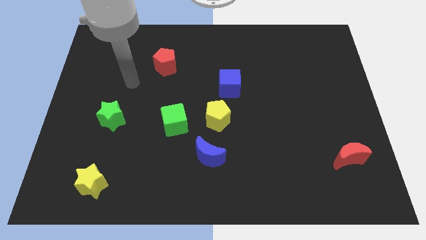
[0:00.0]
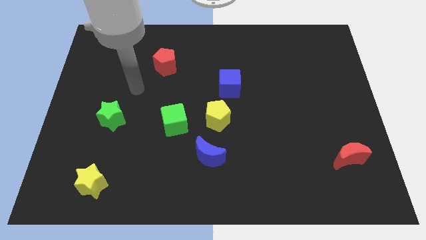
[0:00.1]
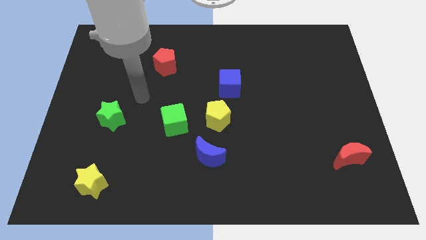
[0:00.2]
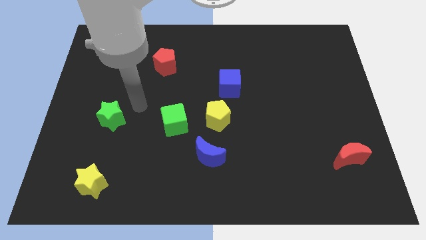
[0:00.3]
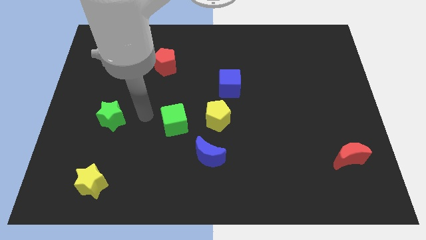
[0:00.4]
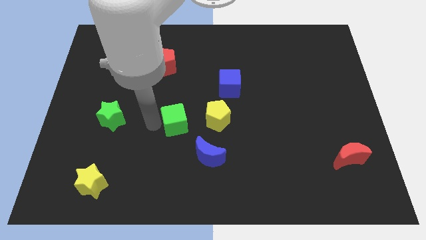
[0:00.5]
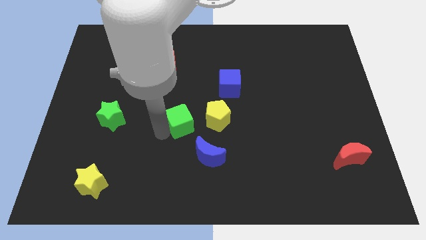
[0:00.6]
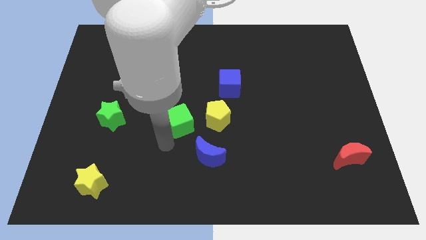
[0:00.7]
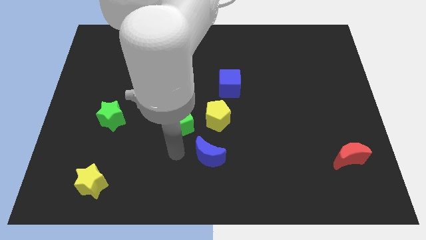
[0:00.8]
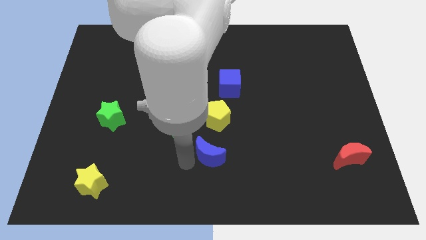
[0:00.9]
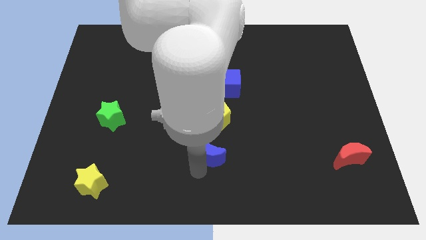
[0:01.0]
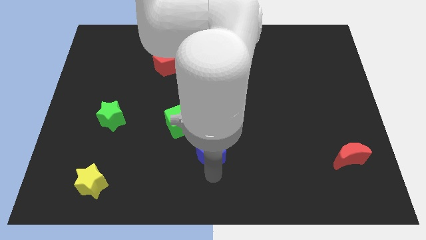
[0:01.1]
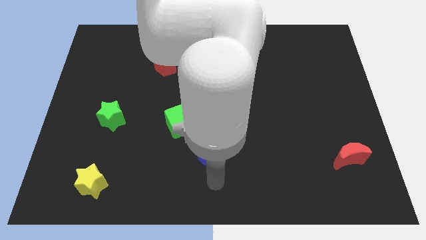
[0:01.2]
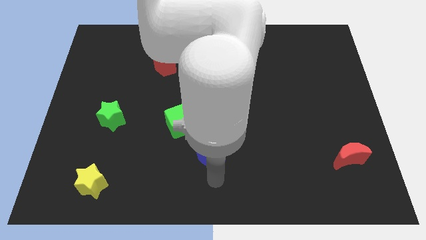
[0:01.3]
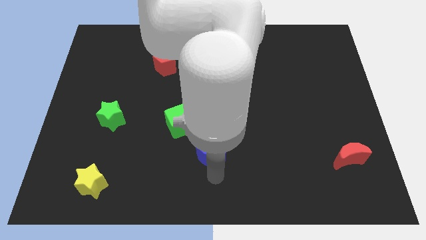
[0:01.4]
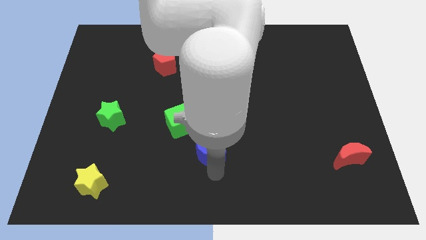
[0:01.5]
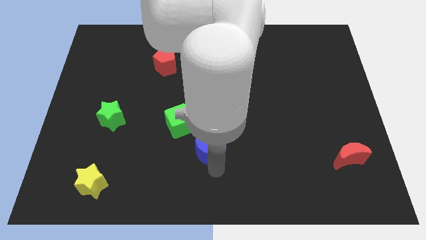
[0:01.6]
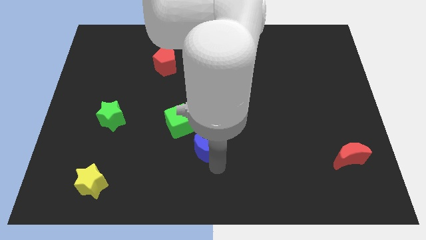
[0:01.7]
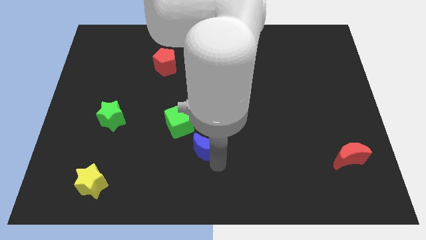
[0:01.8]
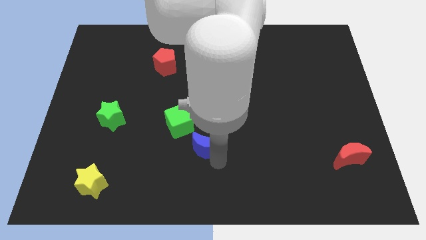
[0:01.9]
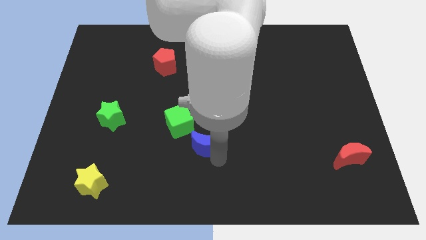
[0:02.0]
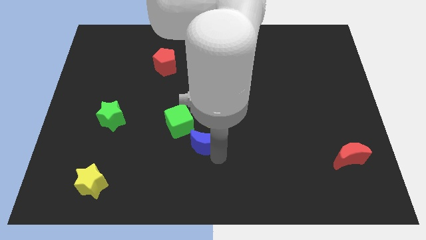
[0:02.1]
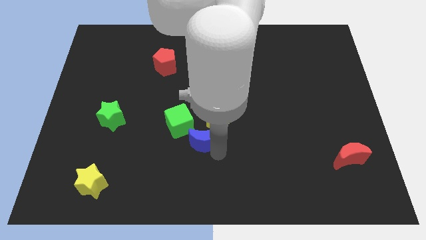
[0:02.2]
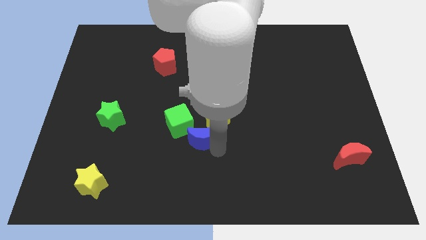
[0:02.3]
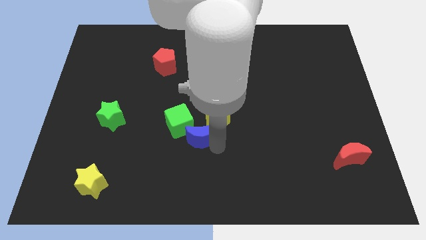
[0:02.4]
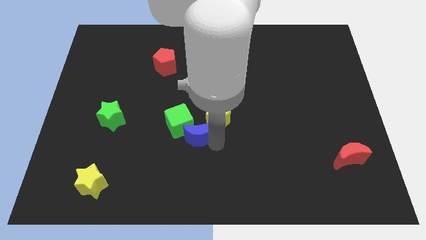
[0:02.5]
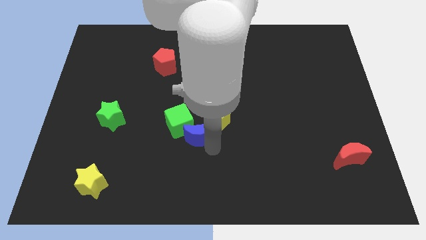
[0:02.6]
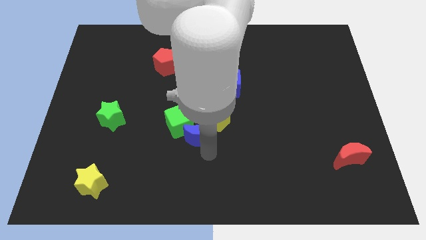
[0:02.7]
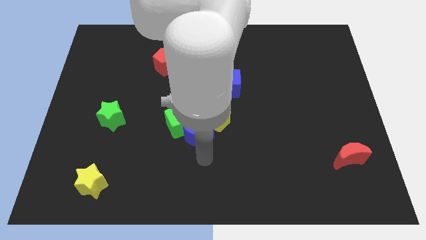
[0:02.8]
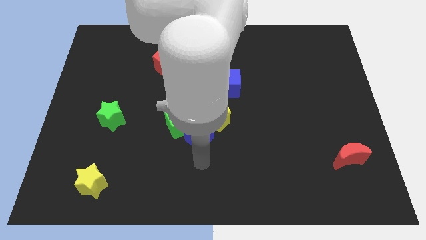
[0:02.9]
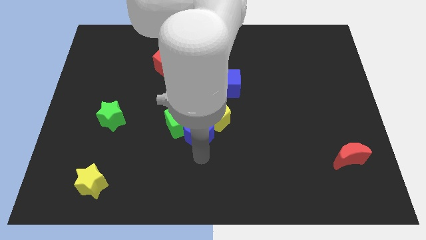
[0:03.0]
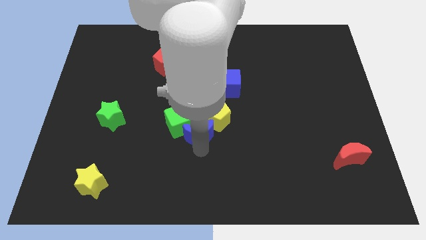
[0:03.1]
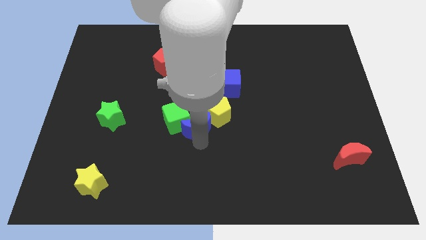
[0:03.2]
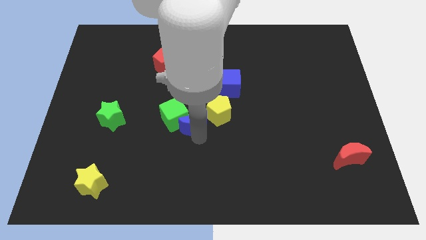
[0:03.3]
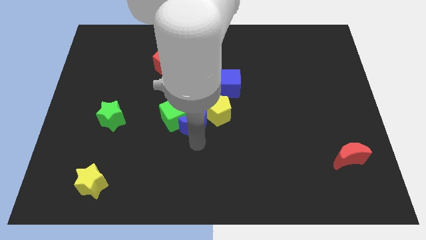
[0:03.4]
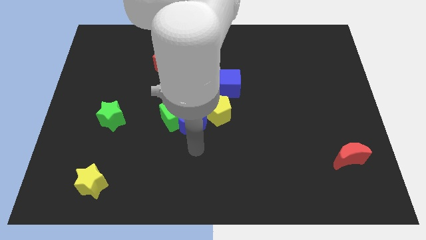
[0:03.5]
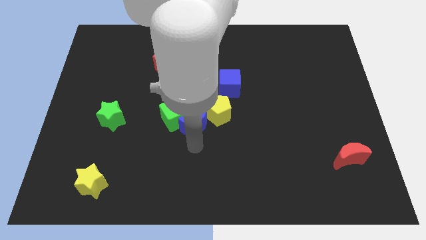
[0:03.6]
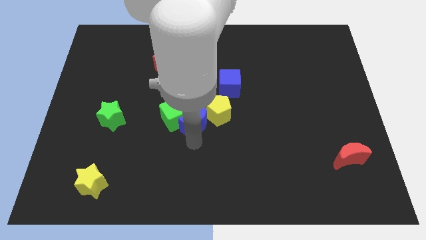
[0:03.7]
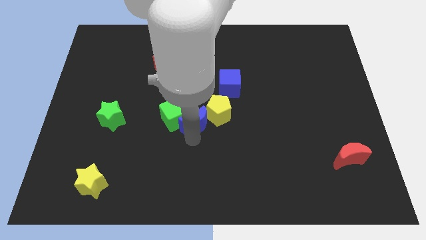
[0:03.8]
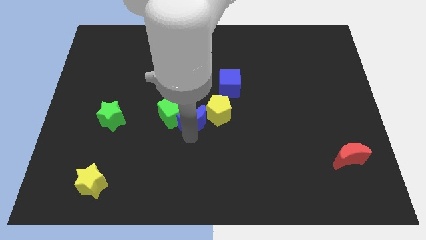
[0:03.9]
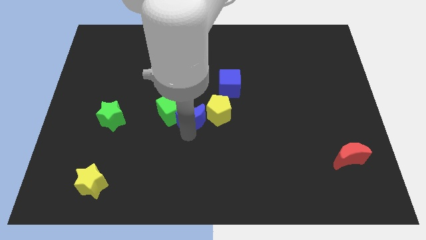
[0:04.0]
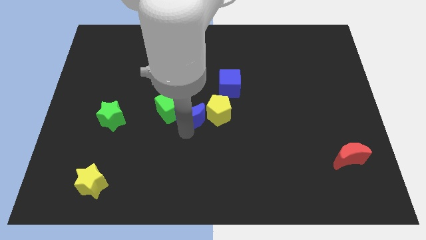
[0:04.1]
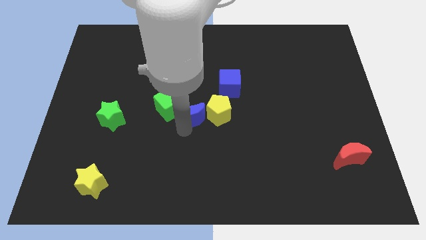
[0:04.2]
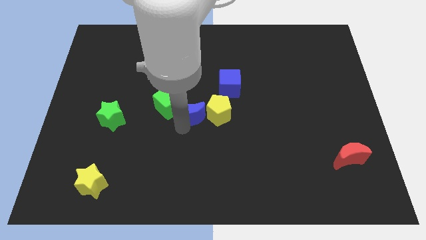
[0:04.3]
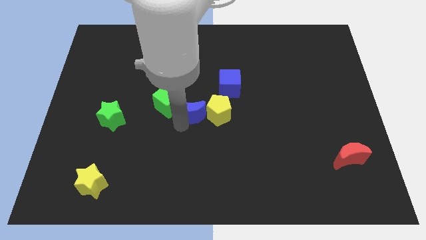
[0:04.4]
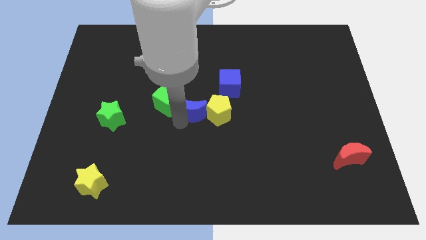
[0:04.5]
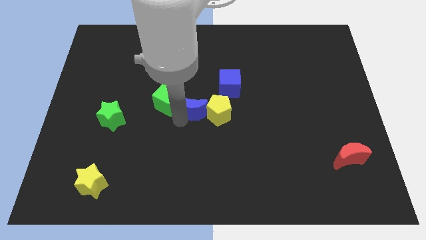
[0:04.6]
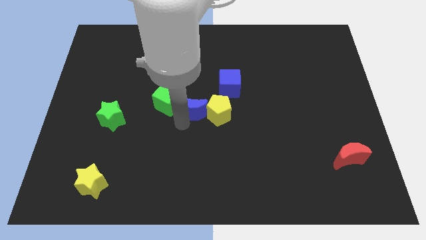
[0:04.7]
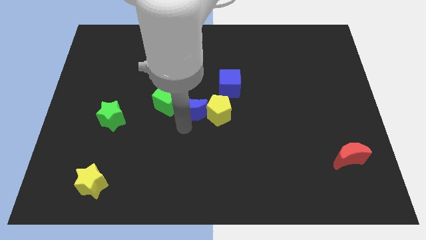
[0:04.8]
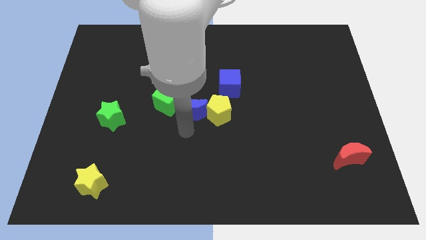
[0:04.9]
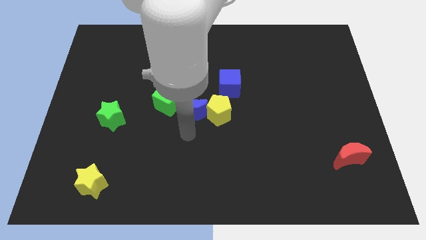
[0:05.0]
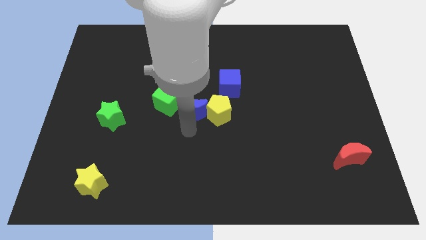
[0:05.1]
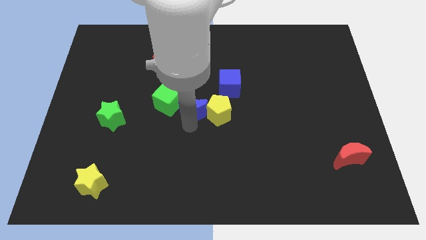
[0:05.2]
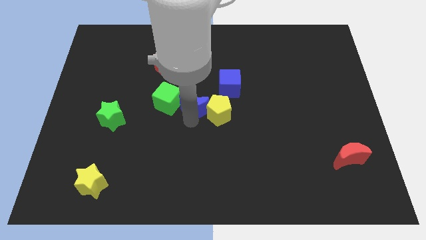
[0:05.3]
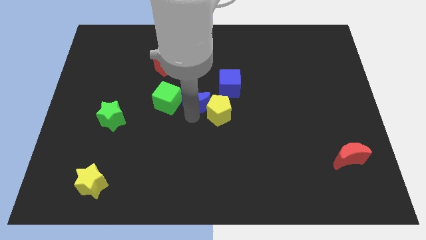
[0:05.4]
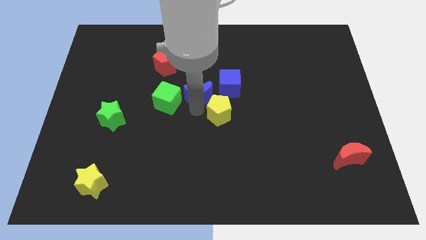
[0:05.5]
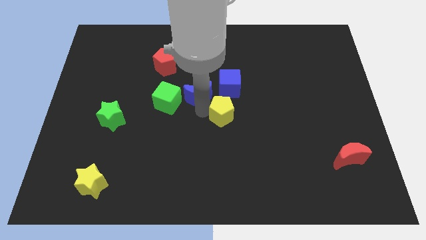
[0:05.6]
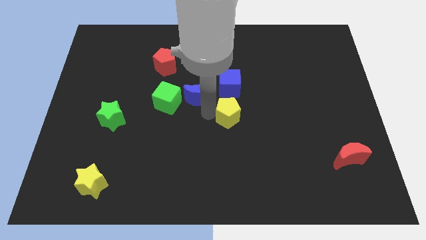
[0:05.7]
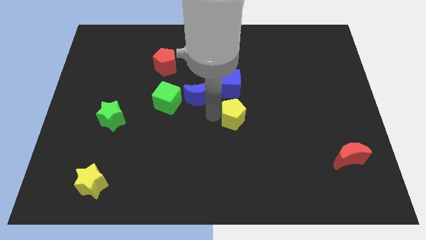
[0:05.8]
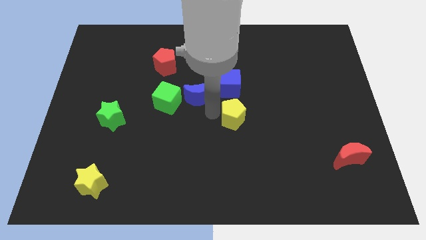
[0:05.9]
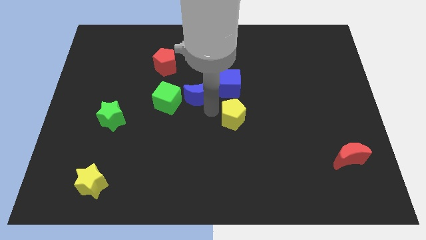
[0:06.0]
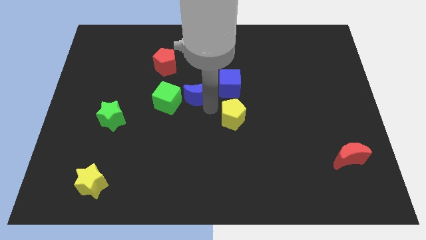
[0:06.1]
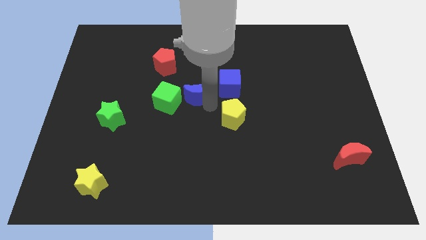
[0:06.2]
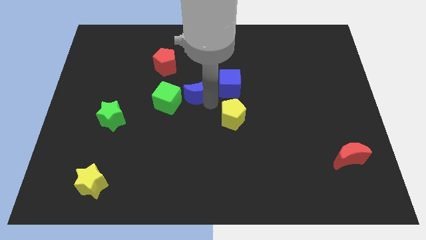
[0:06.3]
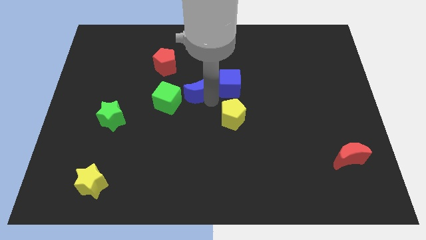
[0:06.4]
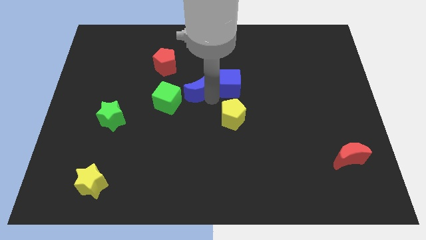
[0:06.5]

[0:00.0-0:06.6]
slide the blue moon to the bottom right side of the red pentagon

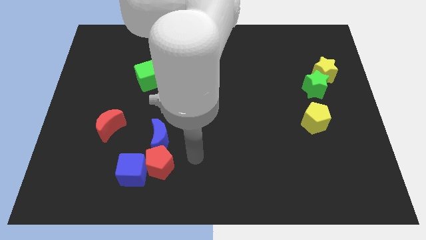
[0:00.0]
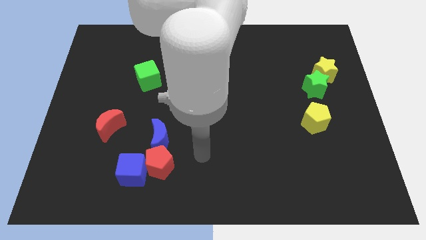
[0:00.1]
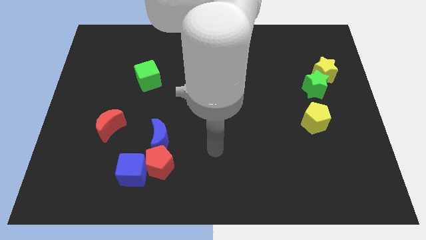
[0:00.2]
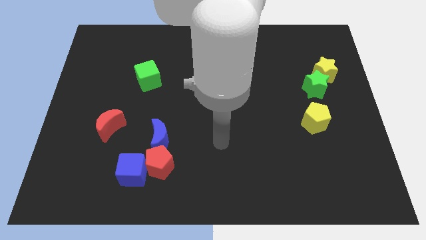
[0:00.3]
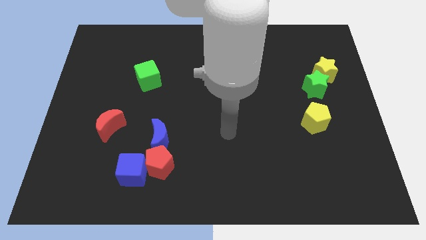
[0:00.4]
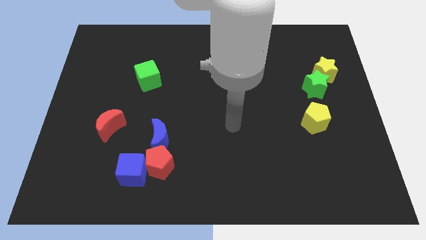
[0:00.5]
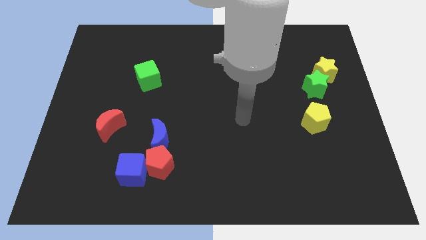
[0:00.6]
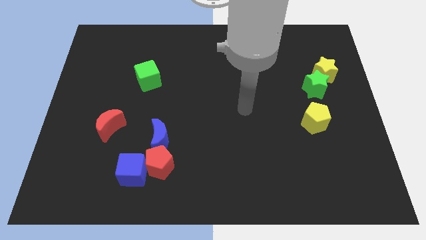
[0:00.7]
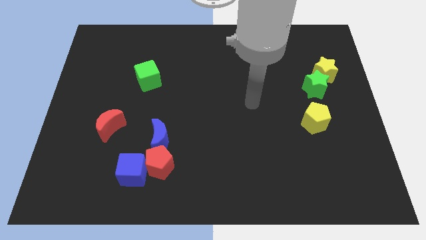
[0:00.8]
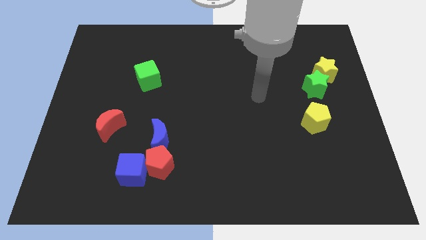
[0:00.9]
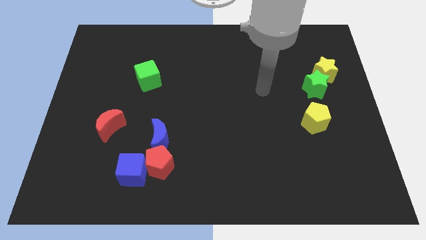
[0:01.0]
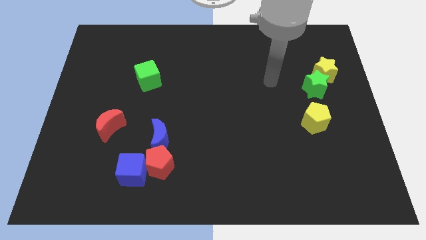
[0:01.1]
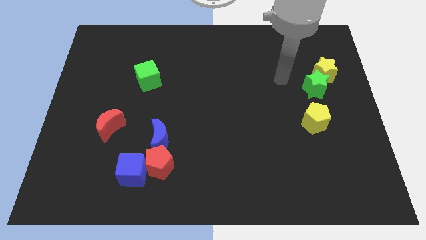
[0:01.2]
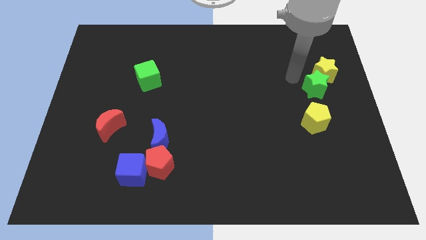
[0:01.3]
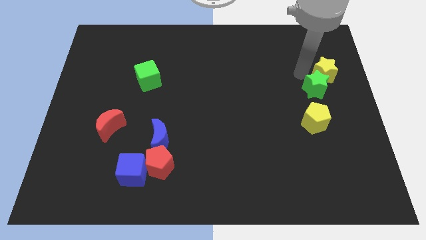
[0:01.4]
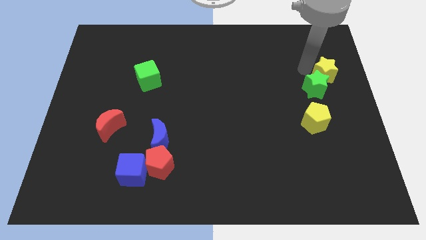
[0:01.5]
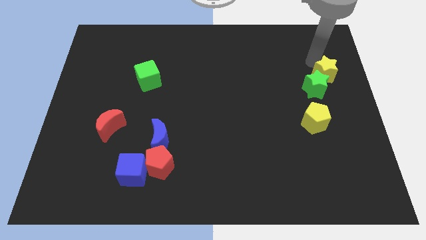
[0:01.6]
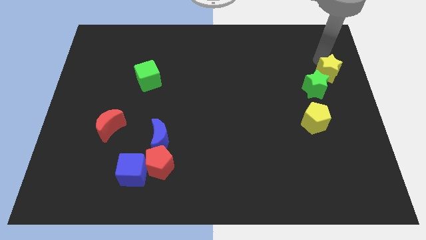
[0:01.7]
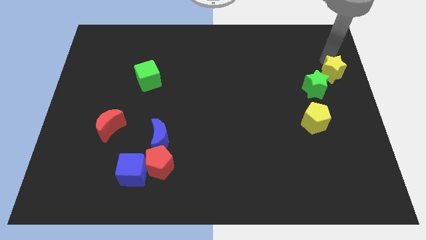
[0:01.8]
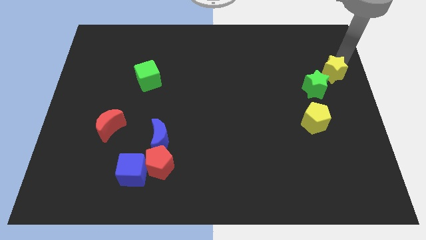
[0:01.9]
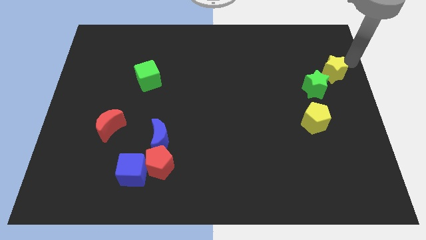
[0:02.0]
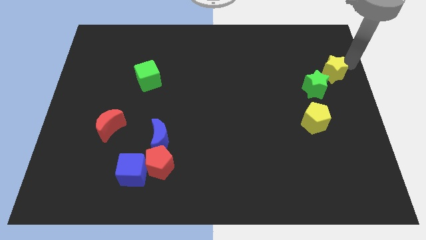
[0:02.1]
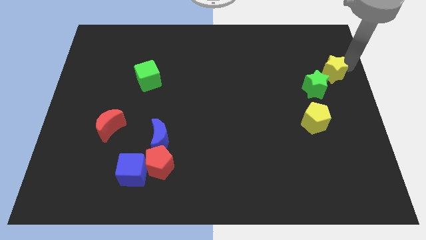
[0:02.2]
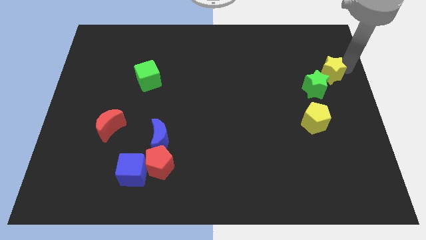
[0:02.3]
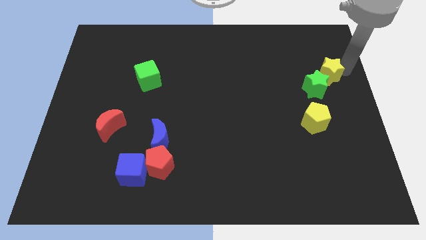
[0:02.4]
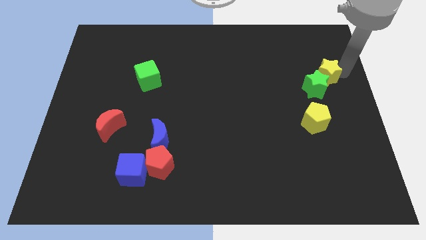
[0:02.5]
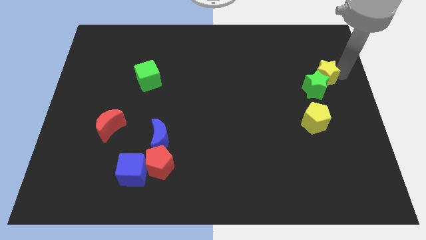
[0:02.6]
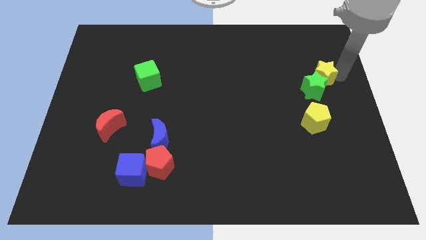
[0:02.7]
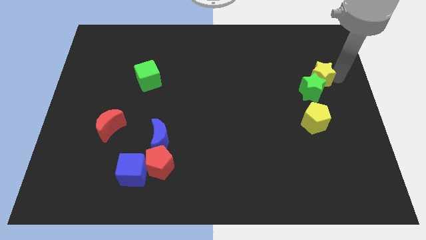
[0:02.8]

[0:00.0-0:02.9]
slide the yellow star to the top of the yellow pentagon
